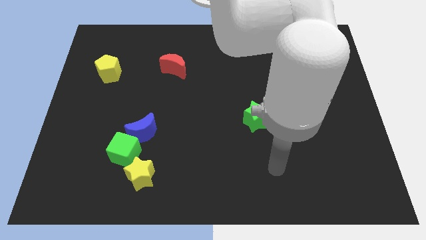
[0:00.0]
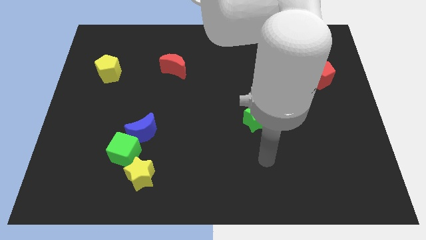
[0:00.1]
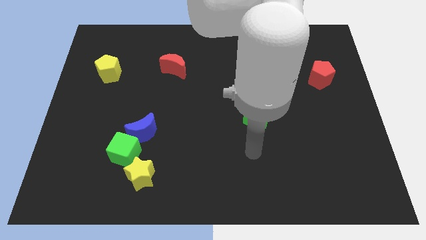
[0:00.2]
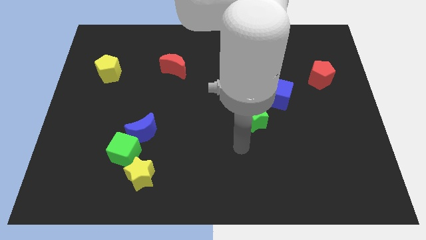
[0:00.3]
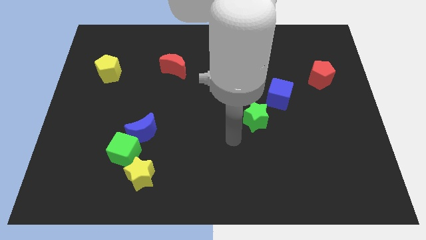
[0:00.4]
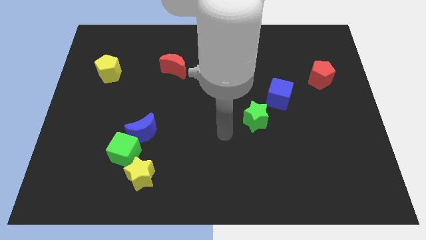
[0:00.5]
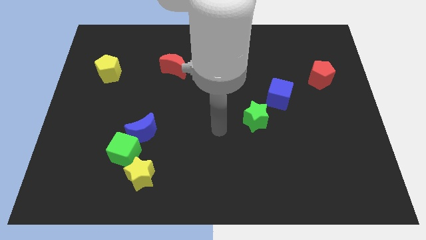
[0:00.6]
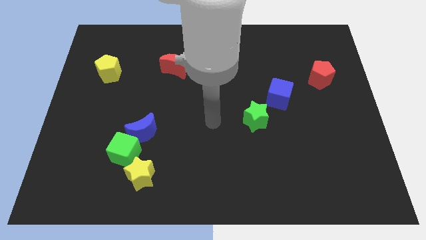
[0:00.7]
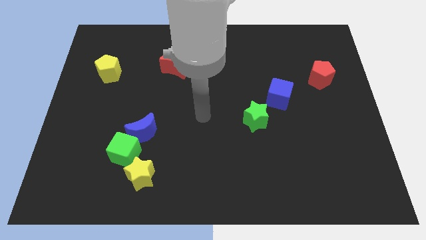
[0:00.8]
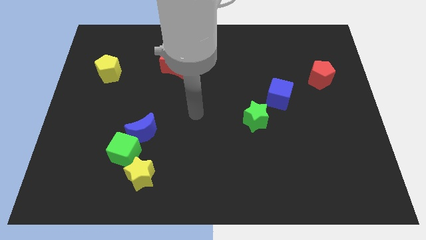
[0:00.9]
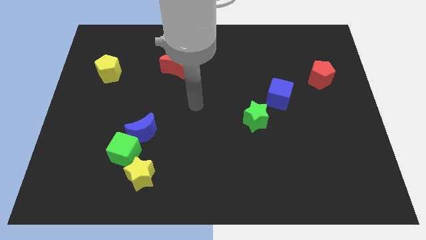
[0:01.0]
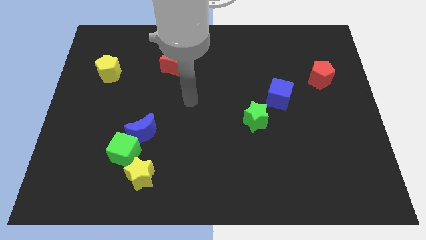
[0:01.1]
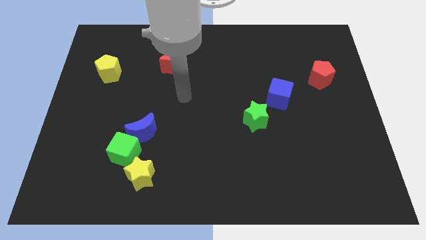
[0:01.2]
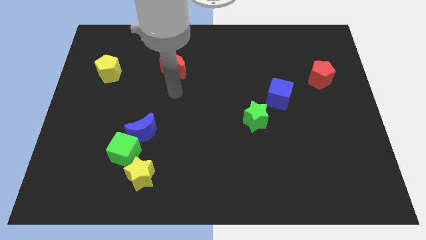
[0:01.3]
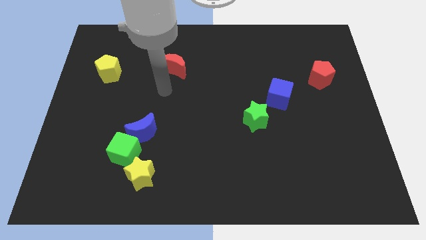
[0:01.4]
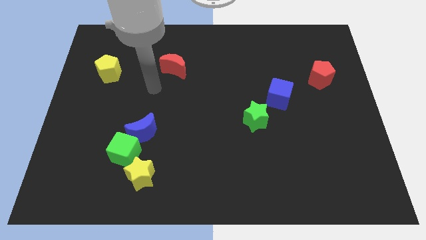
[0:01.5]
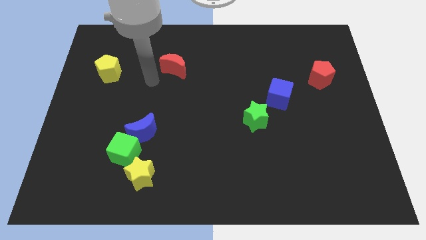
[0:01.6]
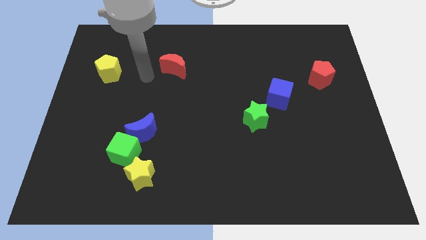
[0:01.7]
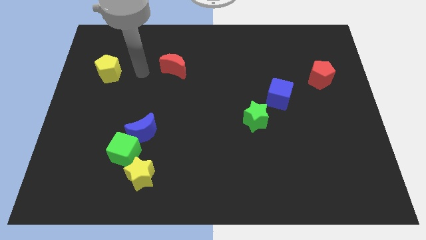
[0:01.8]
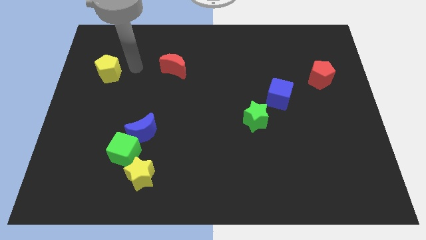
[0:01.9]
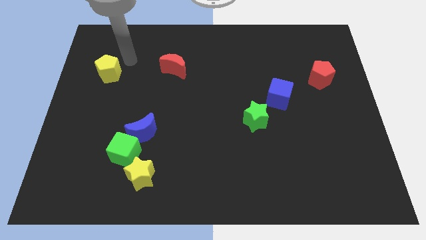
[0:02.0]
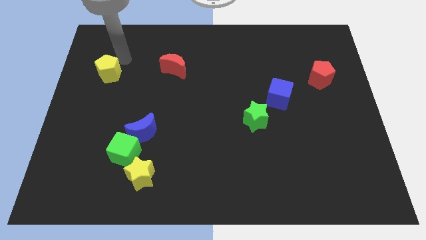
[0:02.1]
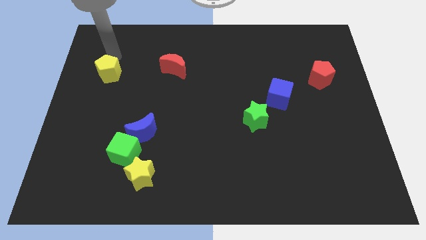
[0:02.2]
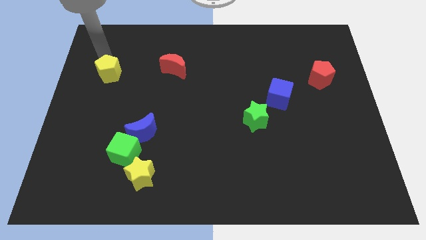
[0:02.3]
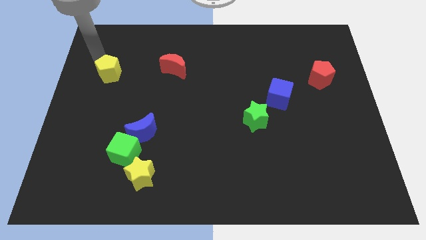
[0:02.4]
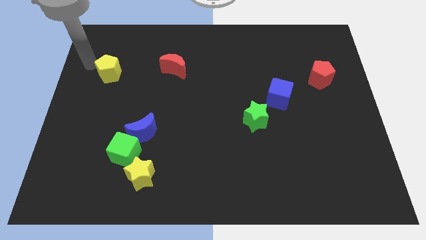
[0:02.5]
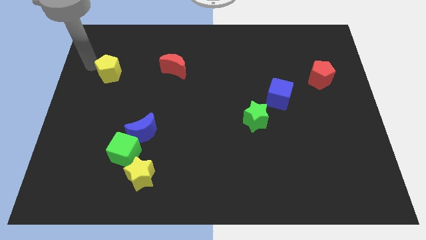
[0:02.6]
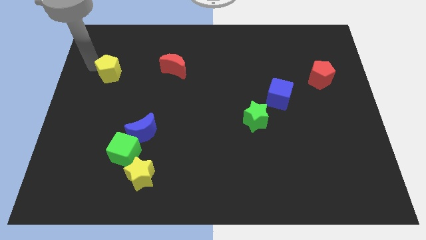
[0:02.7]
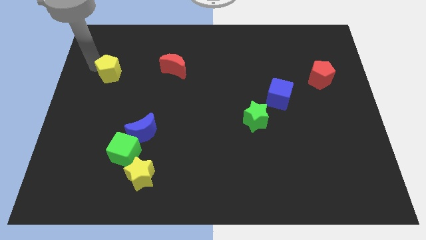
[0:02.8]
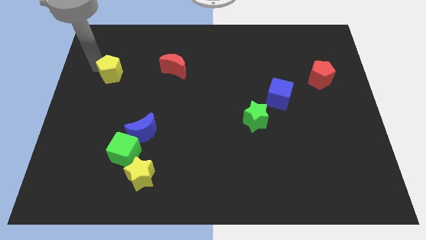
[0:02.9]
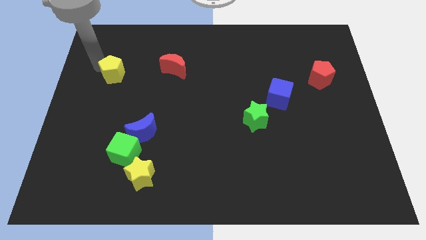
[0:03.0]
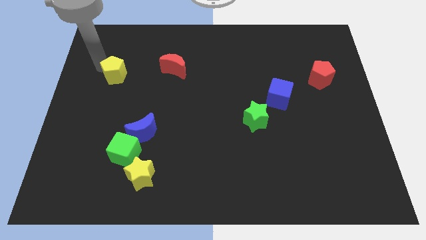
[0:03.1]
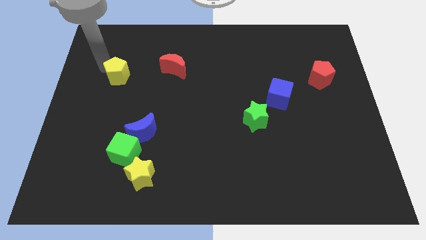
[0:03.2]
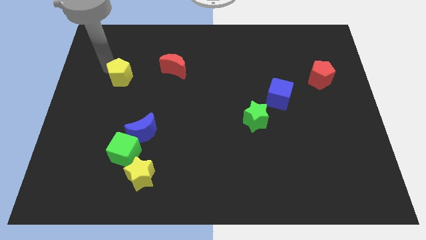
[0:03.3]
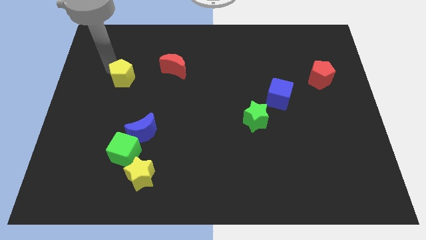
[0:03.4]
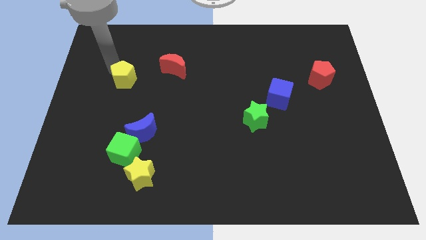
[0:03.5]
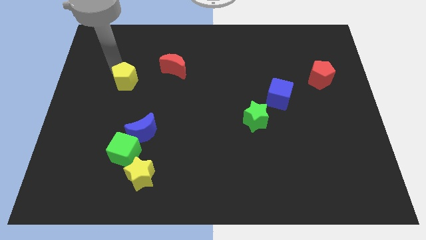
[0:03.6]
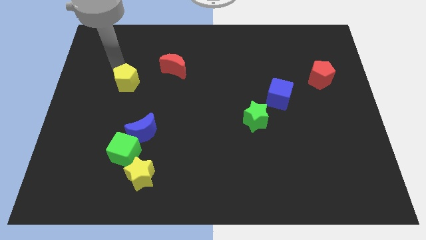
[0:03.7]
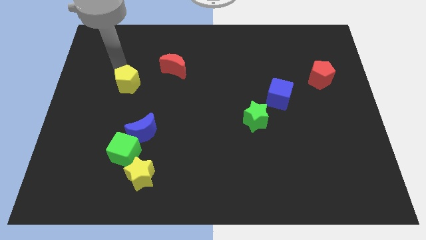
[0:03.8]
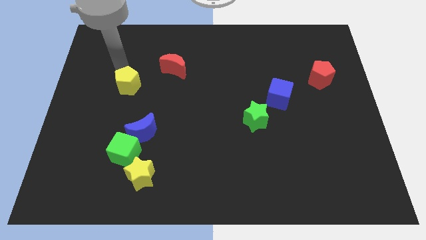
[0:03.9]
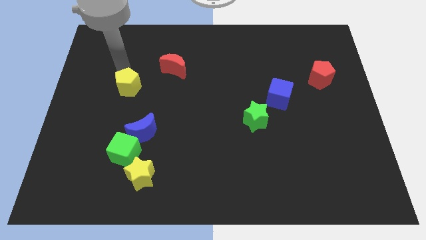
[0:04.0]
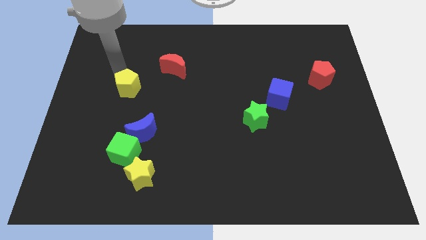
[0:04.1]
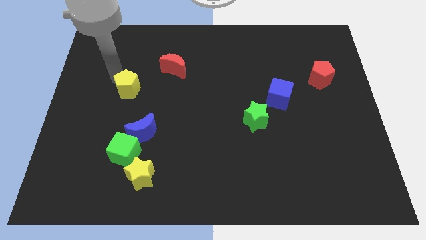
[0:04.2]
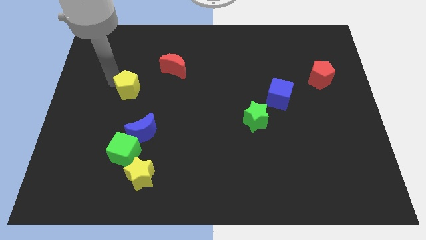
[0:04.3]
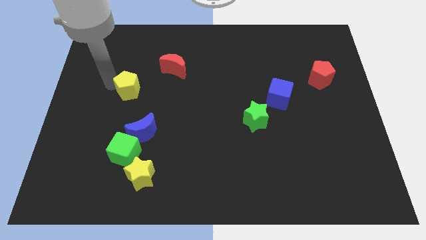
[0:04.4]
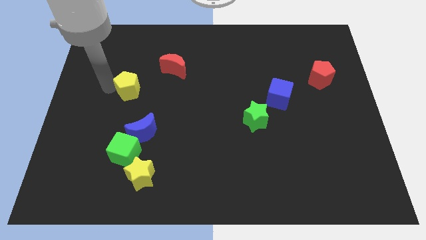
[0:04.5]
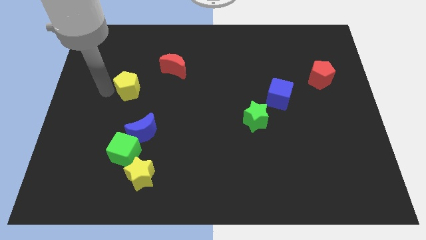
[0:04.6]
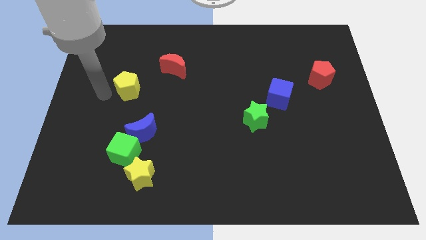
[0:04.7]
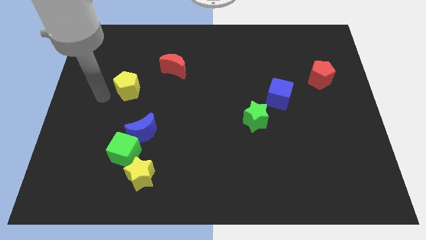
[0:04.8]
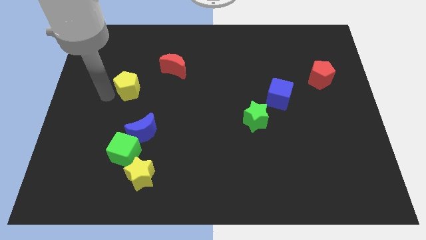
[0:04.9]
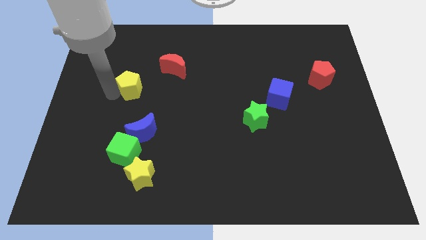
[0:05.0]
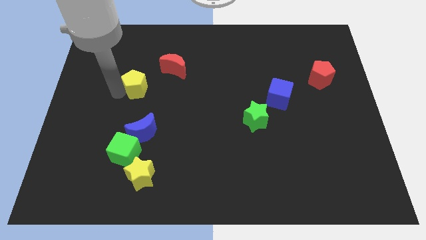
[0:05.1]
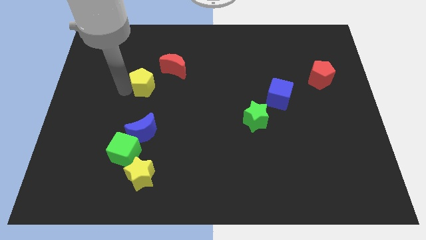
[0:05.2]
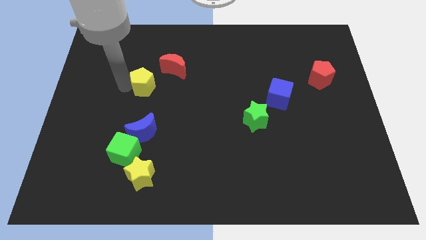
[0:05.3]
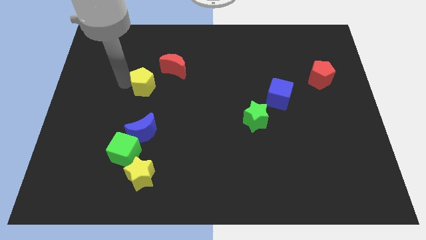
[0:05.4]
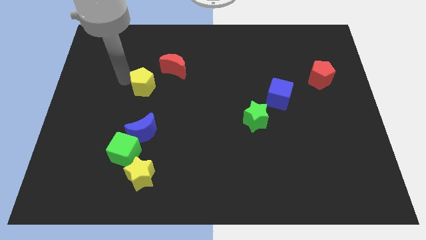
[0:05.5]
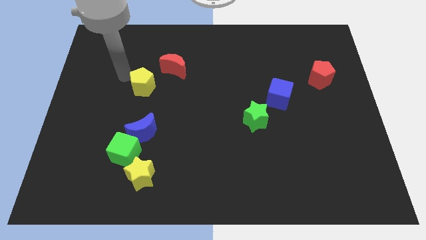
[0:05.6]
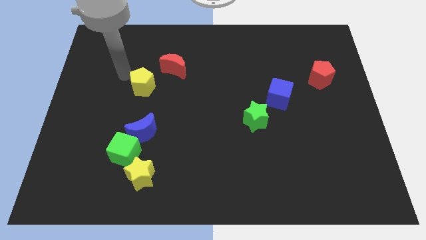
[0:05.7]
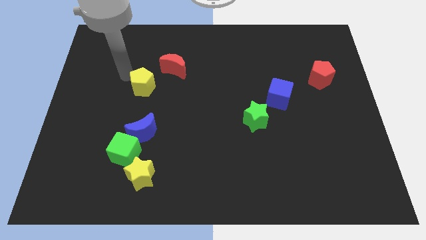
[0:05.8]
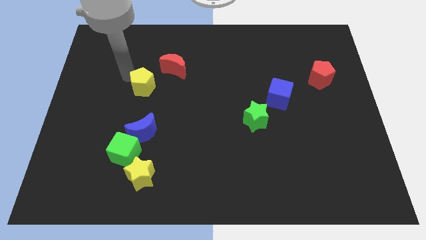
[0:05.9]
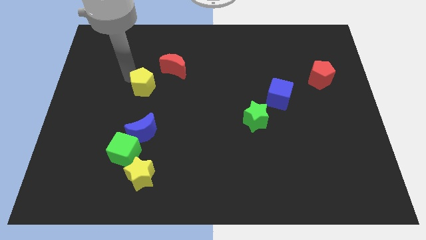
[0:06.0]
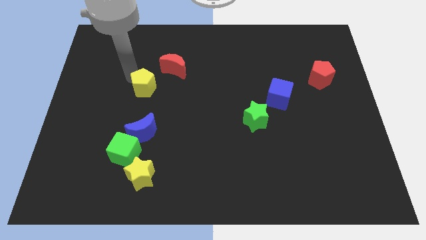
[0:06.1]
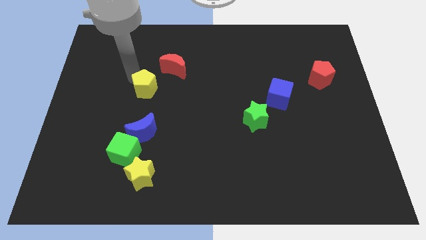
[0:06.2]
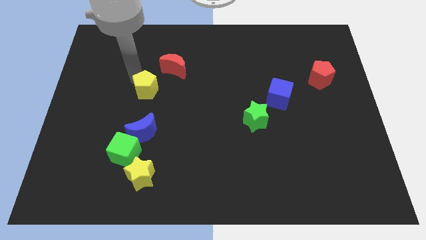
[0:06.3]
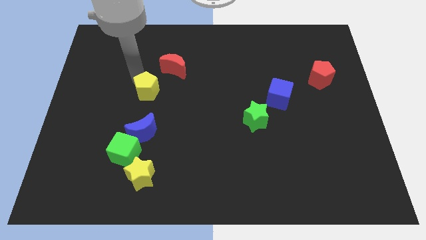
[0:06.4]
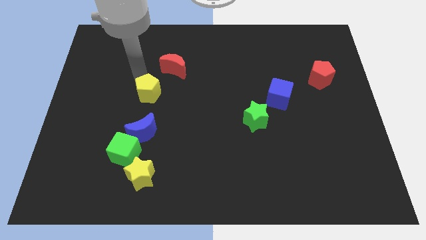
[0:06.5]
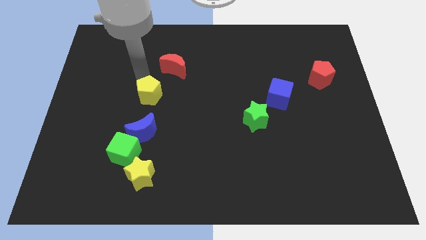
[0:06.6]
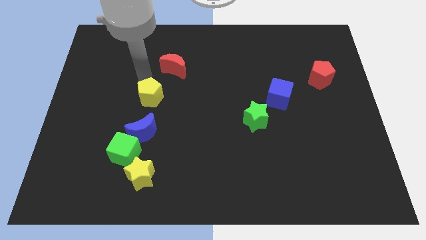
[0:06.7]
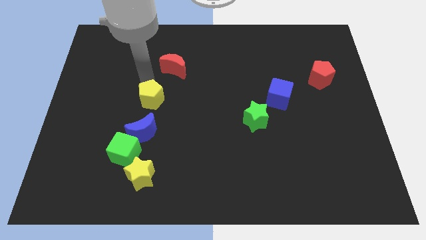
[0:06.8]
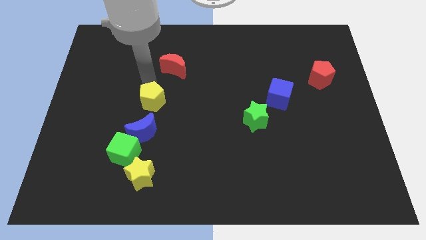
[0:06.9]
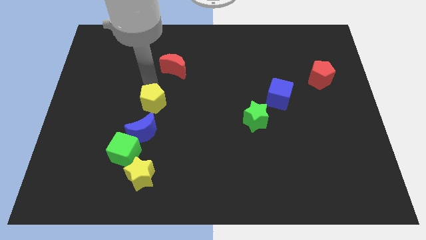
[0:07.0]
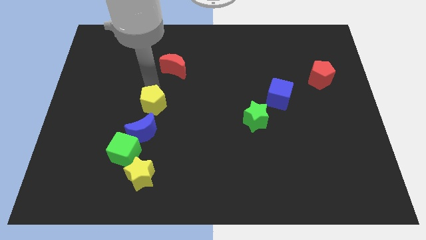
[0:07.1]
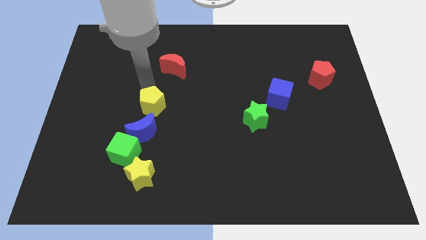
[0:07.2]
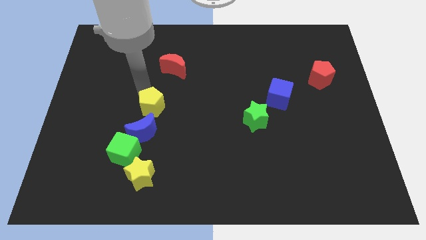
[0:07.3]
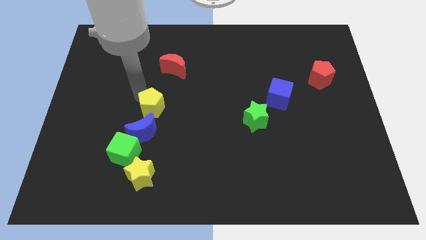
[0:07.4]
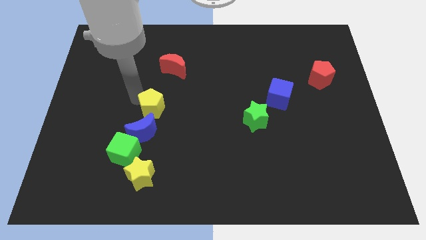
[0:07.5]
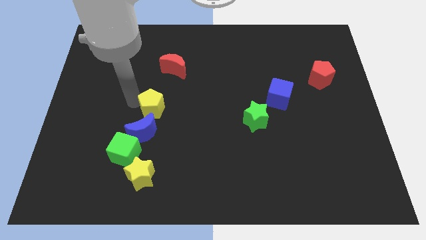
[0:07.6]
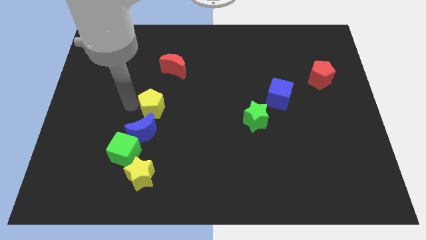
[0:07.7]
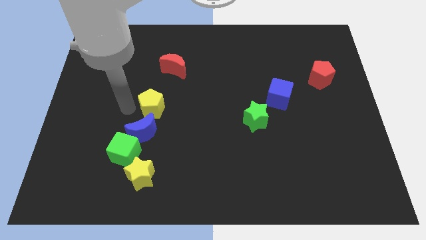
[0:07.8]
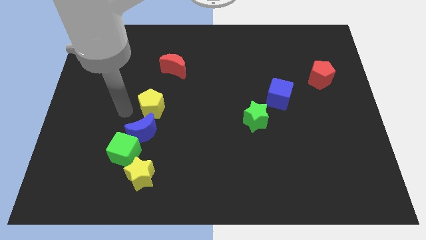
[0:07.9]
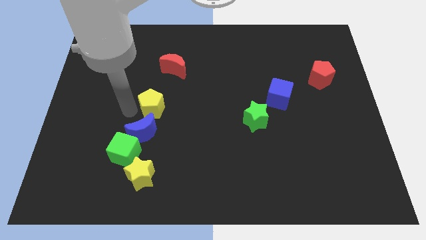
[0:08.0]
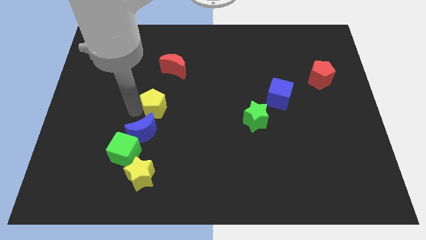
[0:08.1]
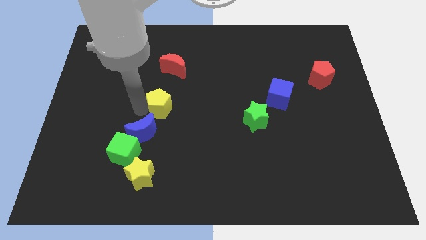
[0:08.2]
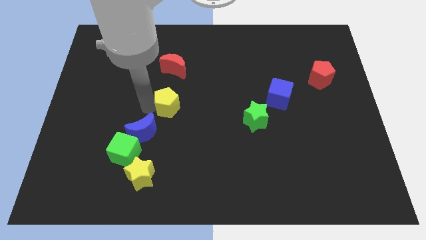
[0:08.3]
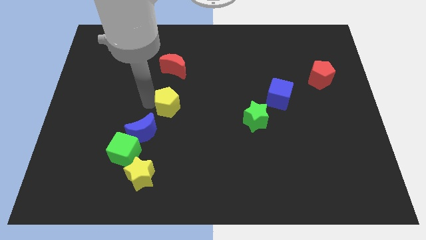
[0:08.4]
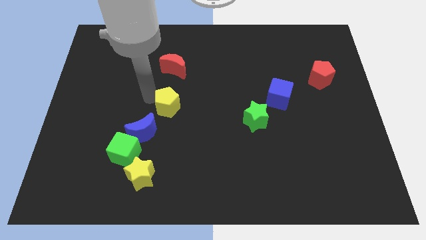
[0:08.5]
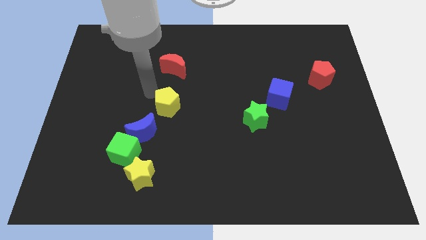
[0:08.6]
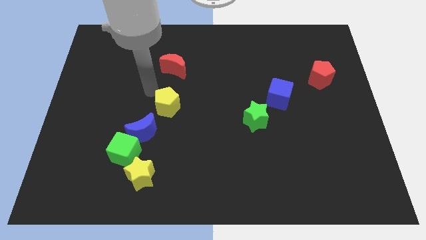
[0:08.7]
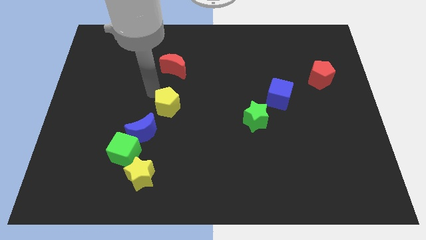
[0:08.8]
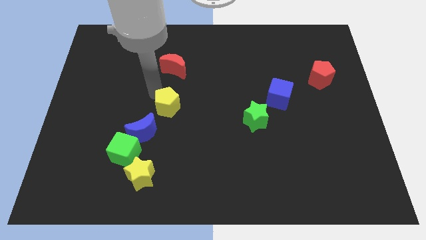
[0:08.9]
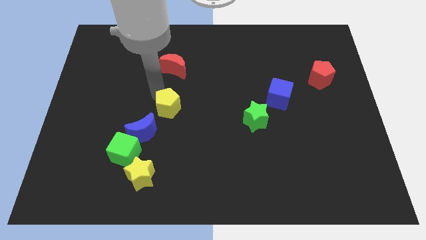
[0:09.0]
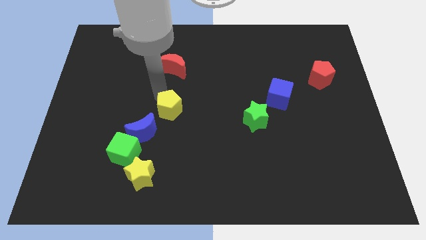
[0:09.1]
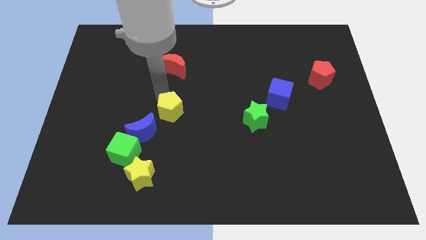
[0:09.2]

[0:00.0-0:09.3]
push the yellow pentagon down and to the right
